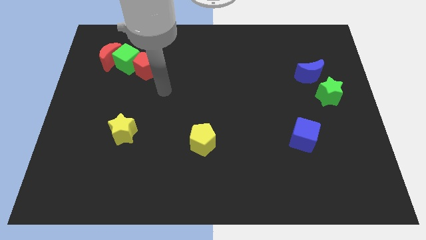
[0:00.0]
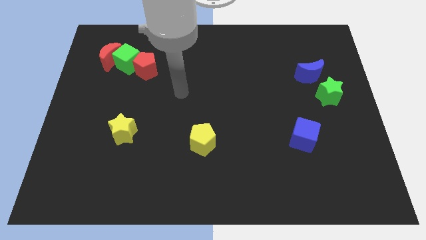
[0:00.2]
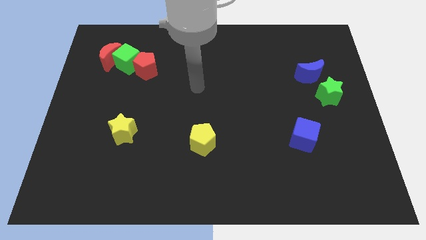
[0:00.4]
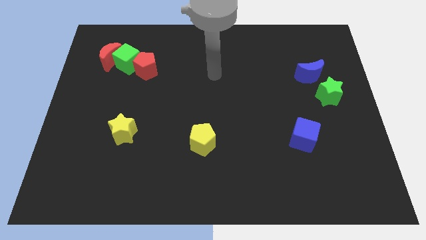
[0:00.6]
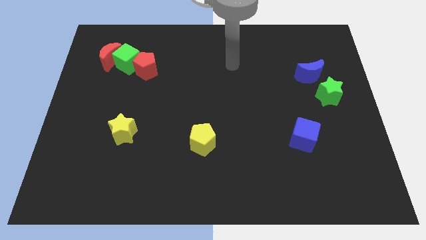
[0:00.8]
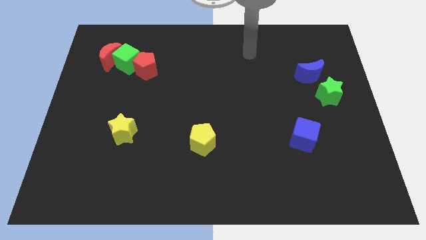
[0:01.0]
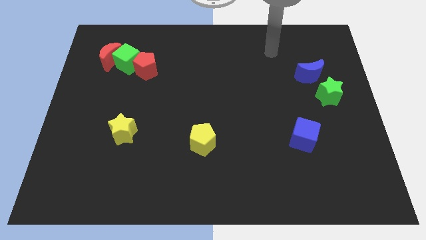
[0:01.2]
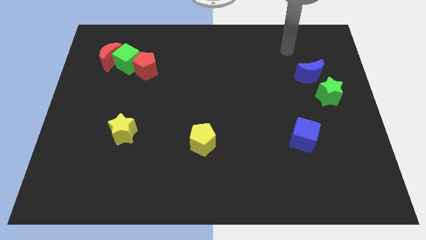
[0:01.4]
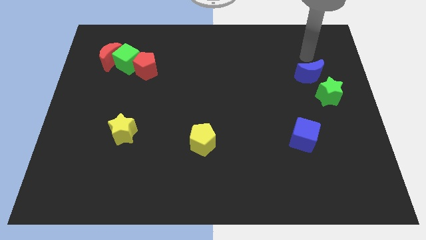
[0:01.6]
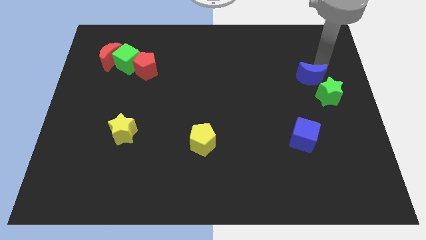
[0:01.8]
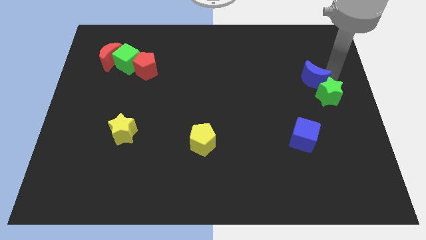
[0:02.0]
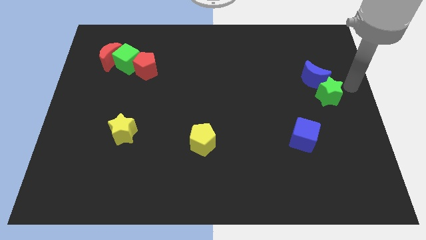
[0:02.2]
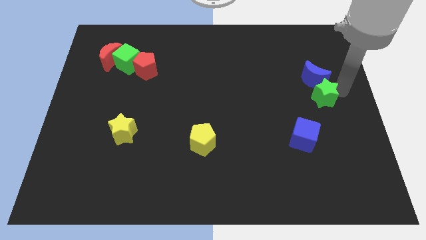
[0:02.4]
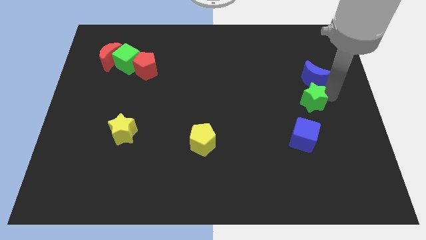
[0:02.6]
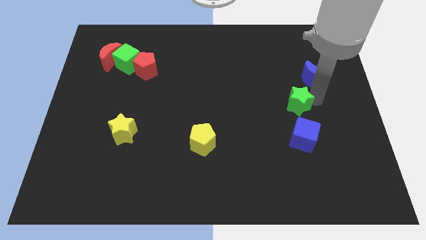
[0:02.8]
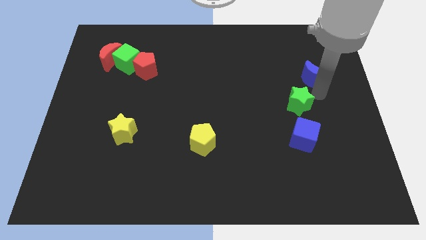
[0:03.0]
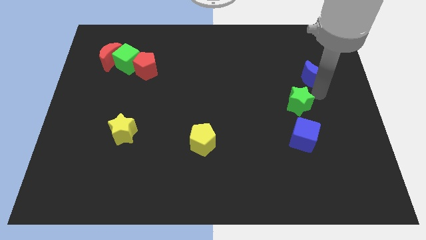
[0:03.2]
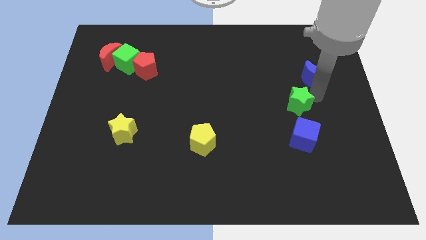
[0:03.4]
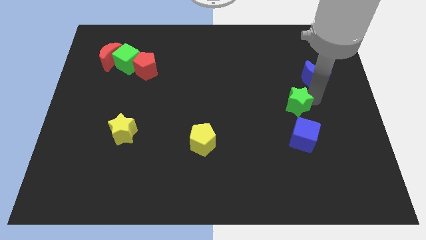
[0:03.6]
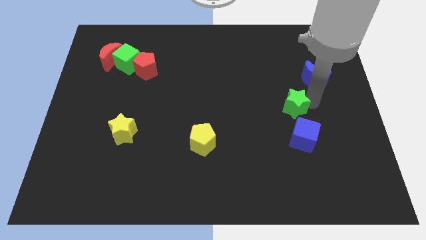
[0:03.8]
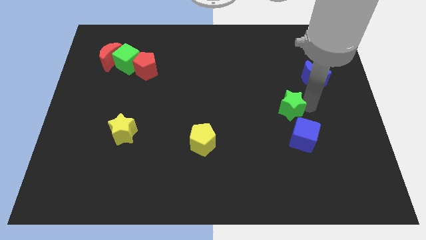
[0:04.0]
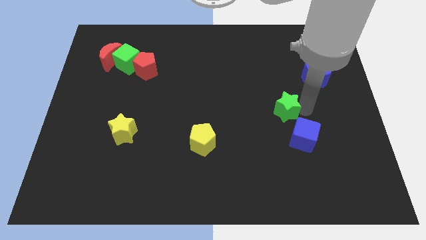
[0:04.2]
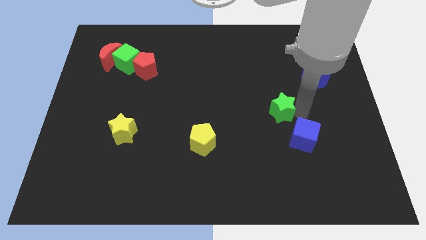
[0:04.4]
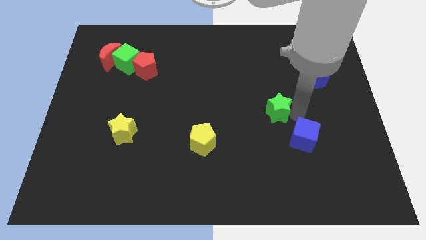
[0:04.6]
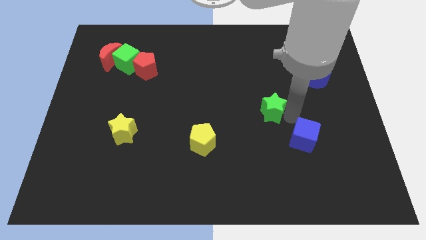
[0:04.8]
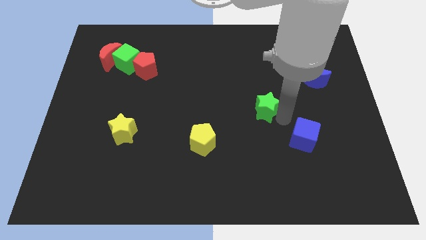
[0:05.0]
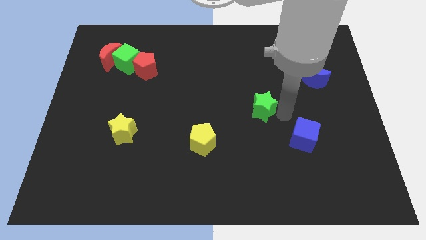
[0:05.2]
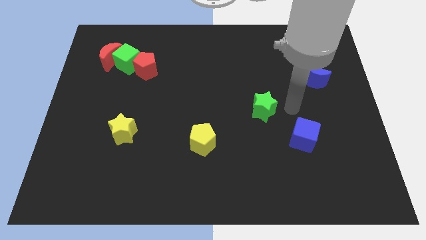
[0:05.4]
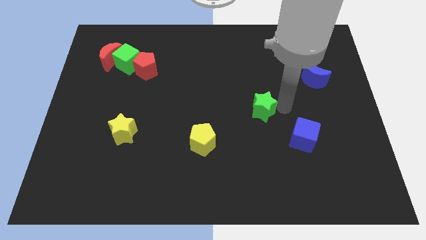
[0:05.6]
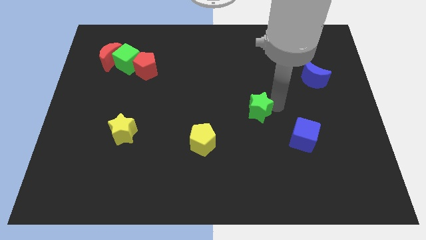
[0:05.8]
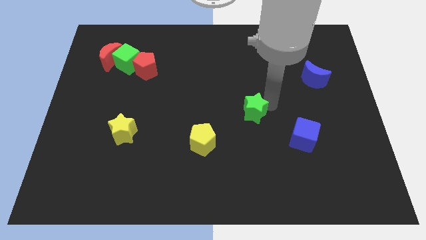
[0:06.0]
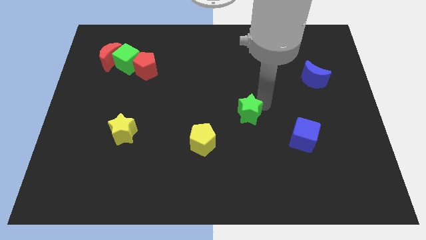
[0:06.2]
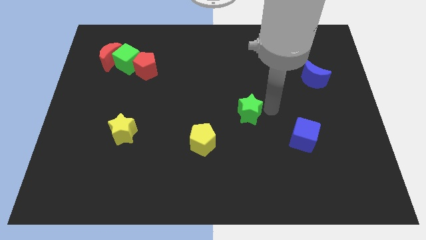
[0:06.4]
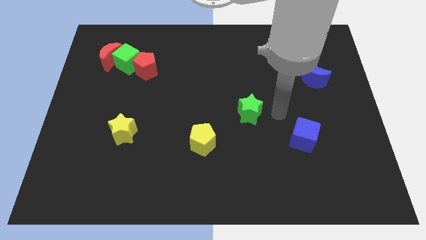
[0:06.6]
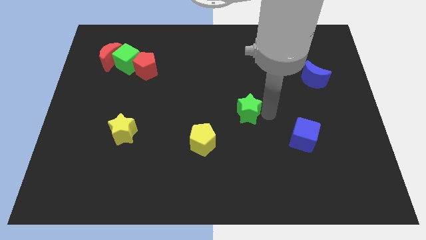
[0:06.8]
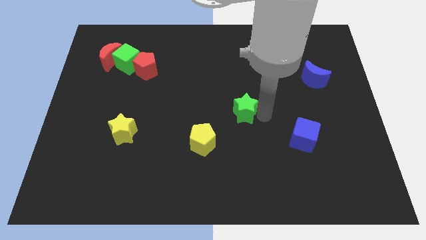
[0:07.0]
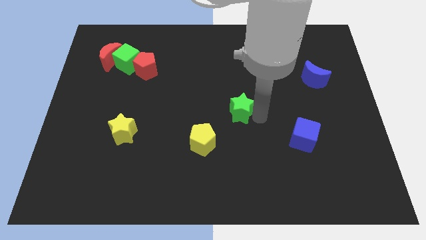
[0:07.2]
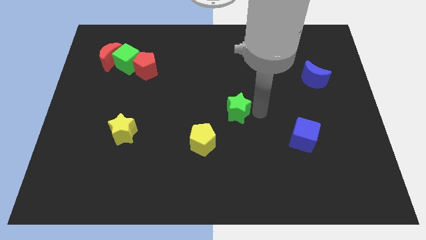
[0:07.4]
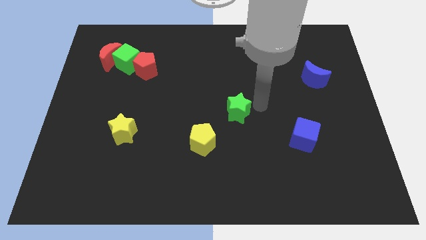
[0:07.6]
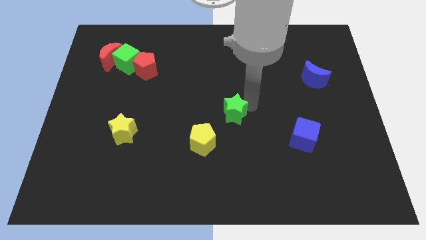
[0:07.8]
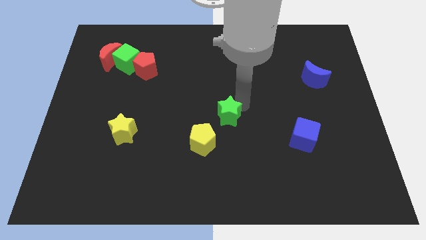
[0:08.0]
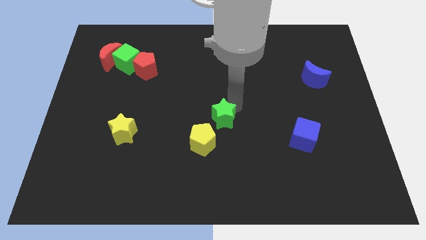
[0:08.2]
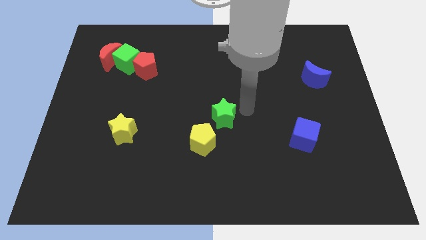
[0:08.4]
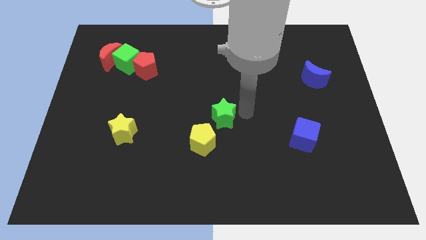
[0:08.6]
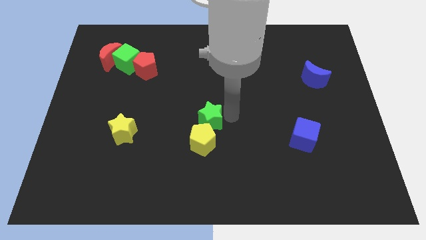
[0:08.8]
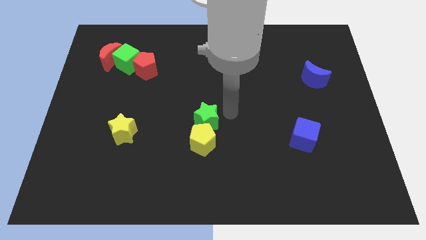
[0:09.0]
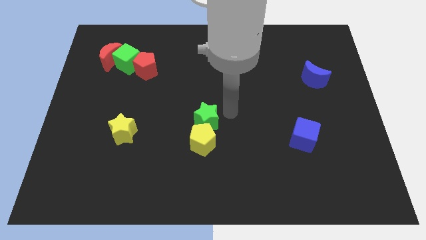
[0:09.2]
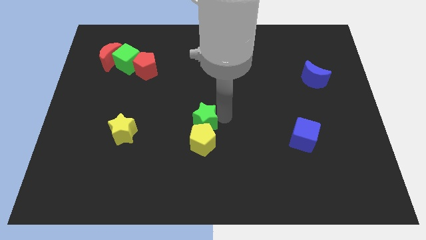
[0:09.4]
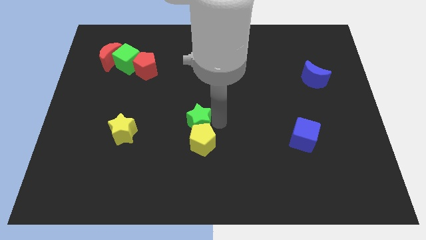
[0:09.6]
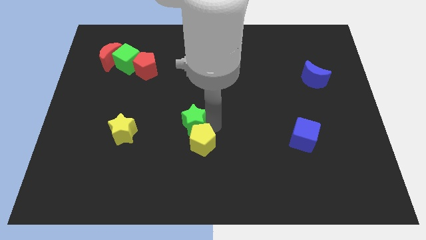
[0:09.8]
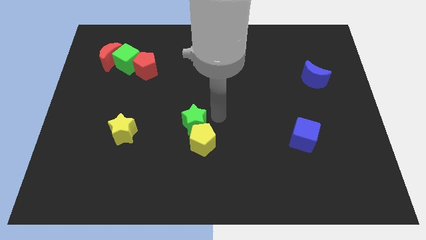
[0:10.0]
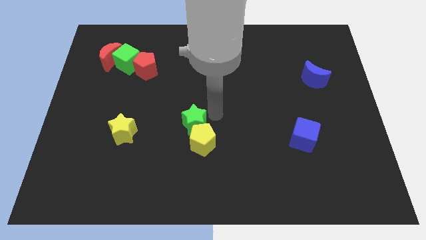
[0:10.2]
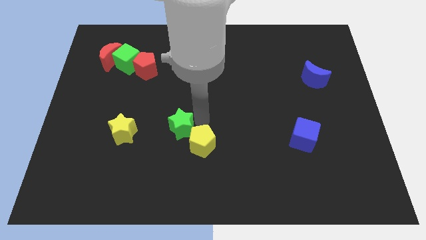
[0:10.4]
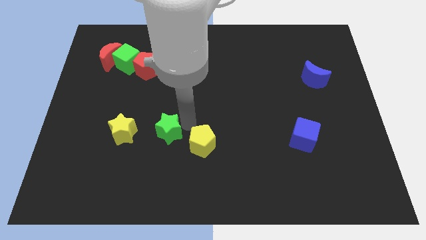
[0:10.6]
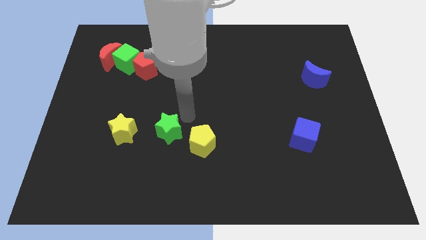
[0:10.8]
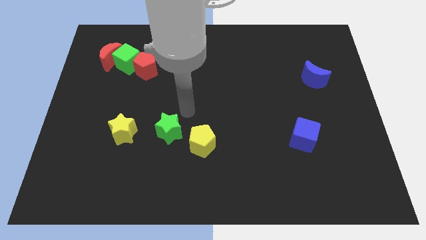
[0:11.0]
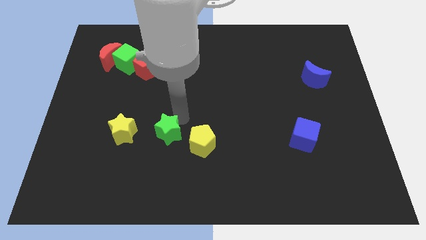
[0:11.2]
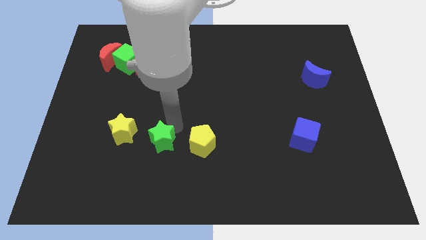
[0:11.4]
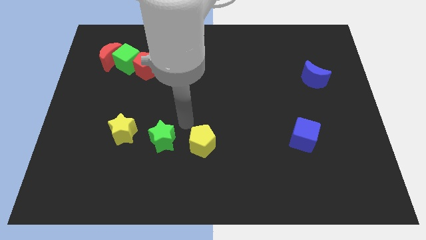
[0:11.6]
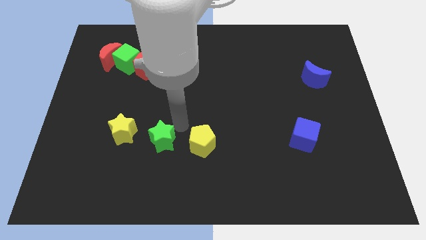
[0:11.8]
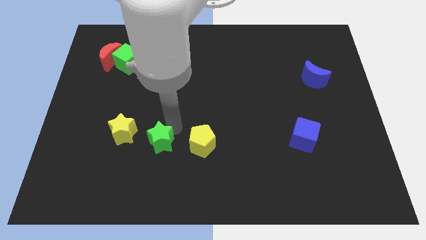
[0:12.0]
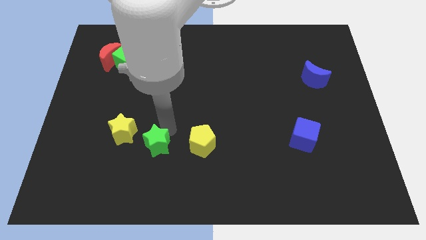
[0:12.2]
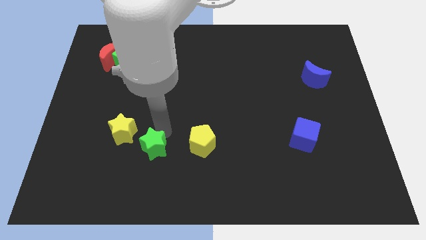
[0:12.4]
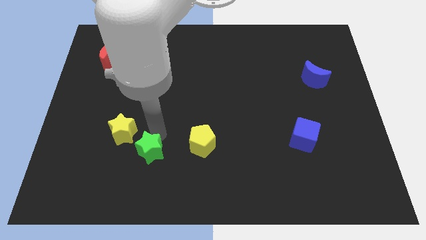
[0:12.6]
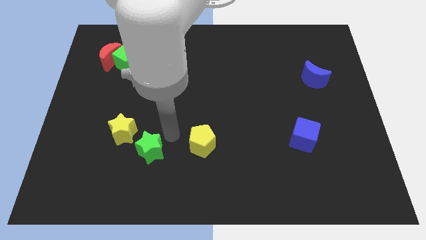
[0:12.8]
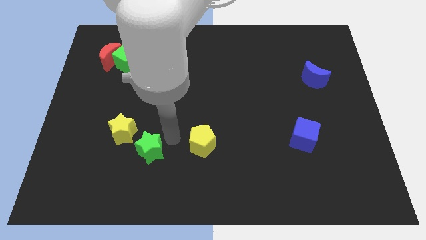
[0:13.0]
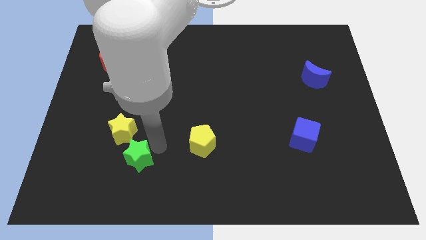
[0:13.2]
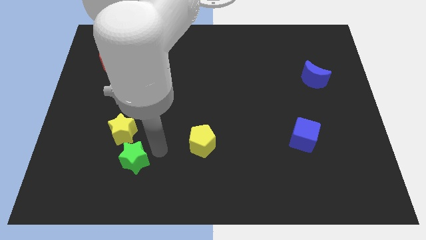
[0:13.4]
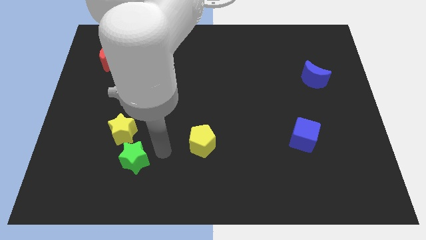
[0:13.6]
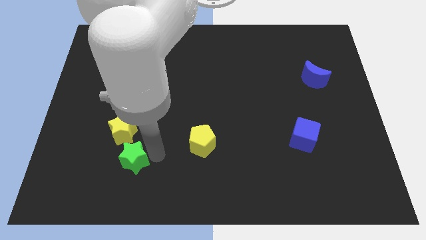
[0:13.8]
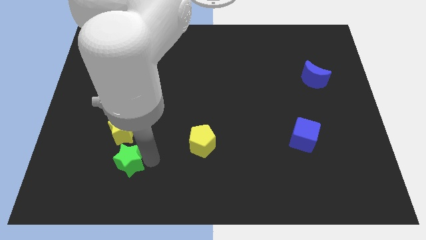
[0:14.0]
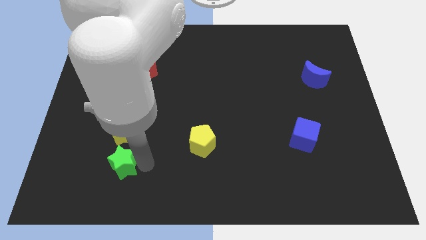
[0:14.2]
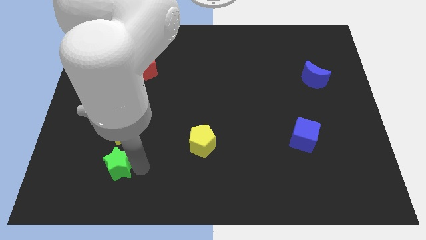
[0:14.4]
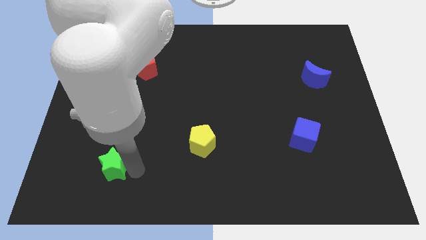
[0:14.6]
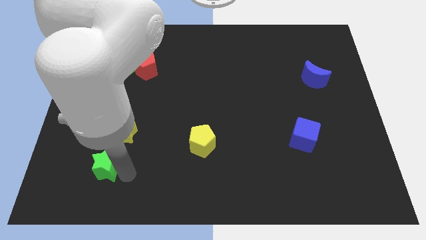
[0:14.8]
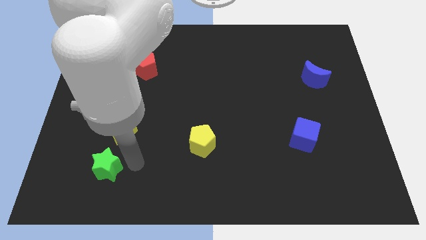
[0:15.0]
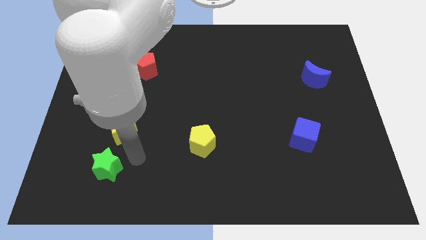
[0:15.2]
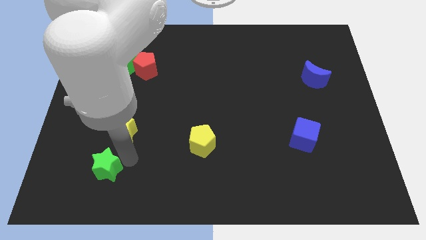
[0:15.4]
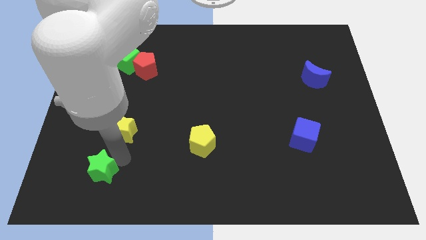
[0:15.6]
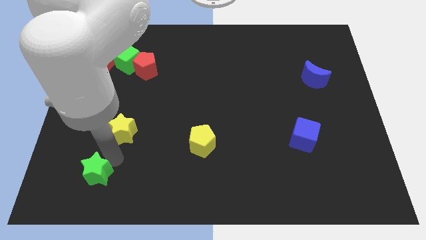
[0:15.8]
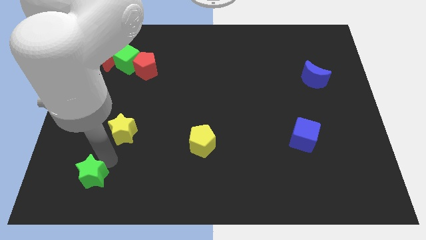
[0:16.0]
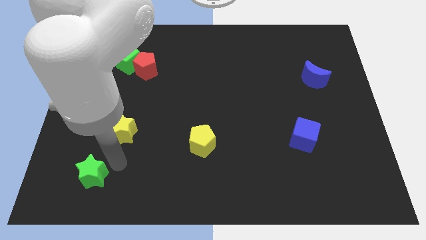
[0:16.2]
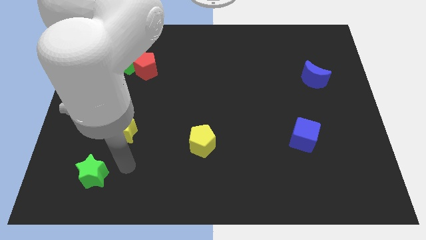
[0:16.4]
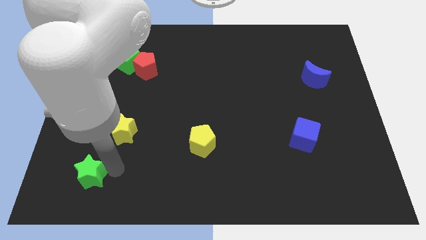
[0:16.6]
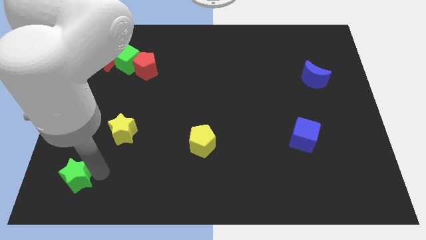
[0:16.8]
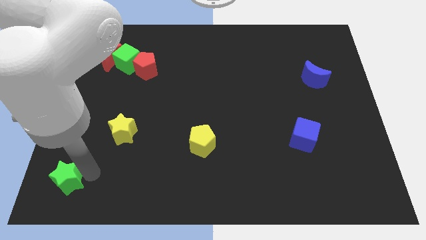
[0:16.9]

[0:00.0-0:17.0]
move the green star to the bottom left corner
